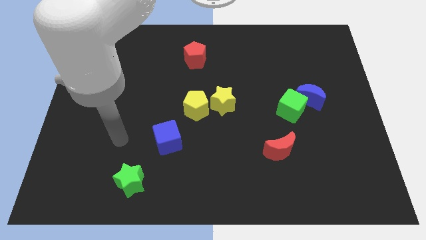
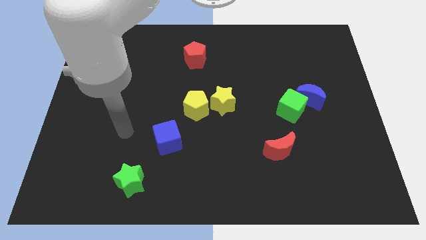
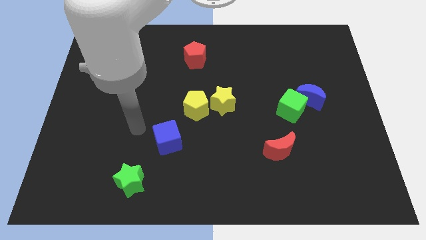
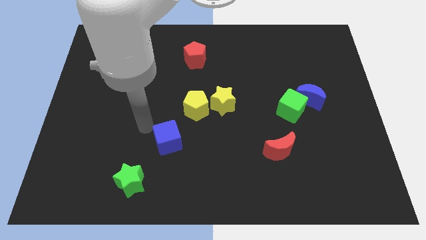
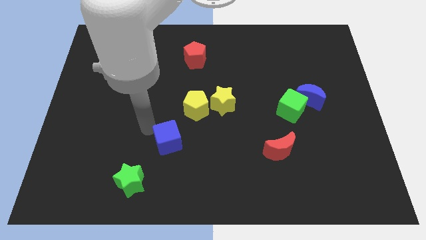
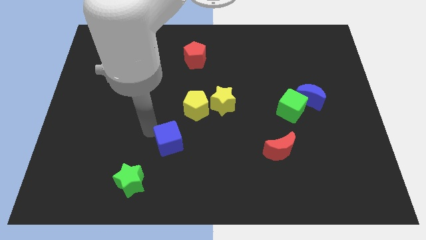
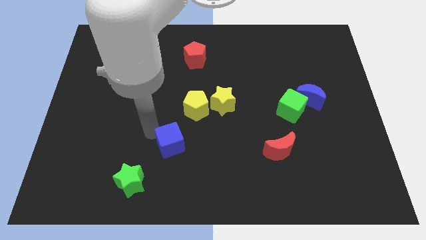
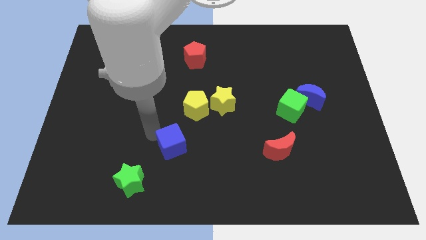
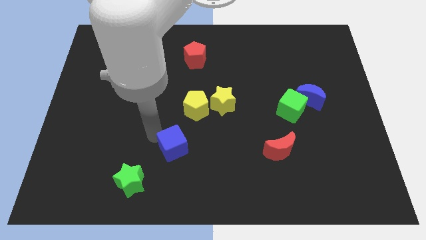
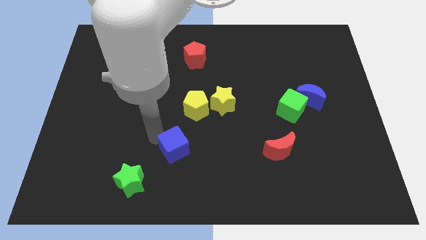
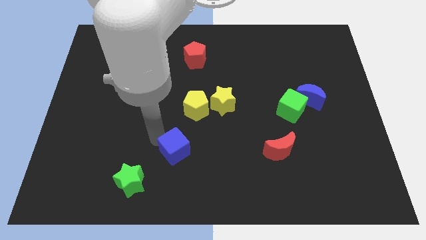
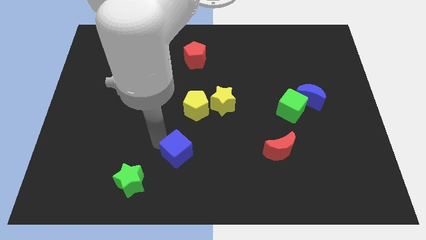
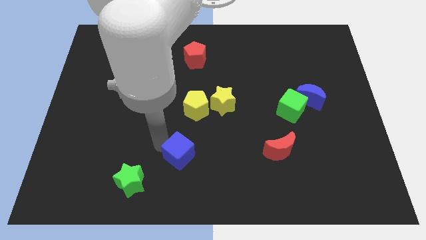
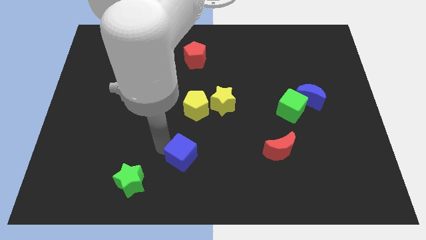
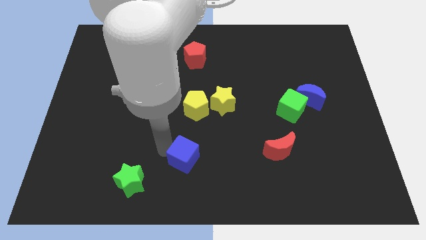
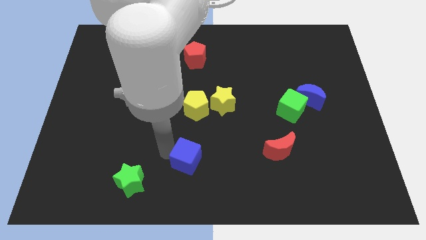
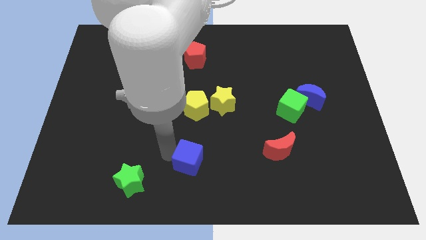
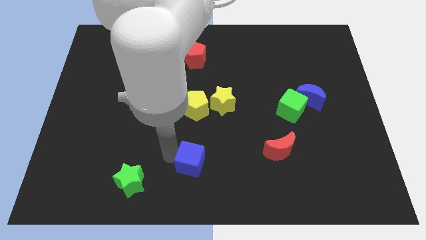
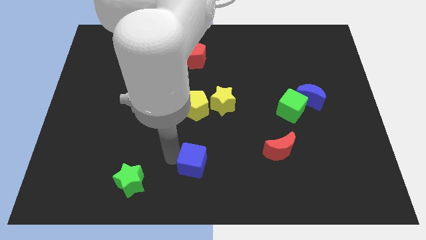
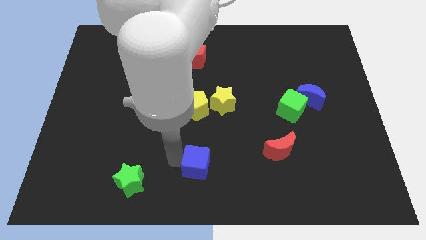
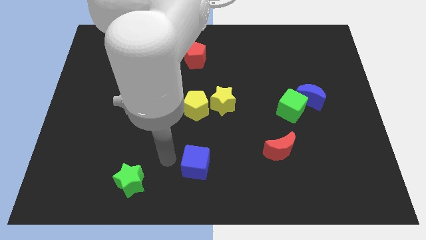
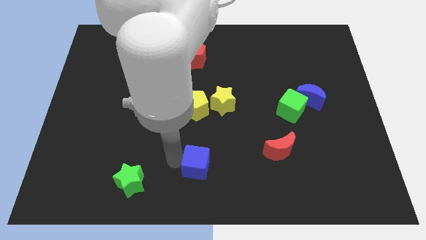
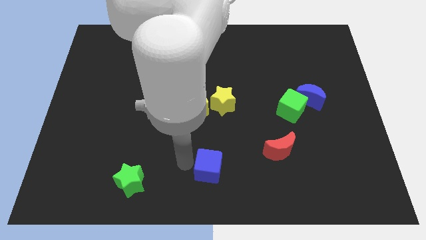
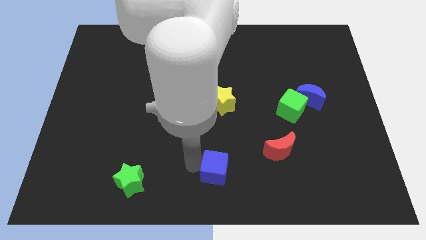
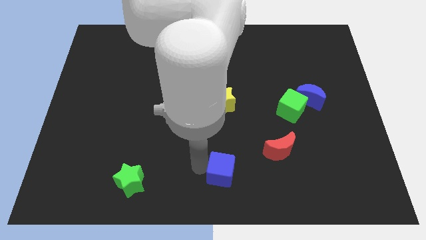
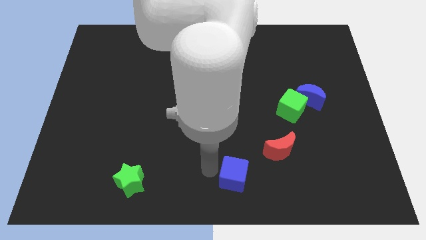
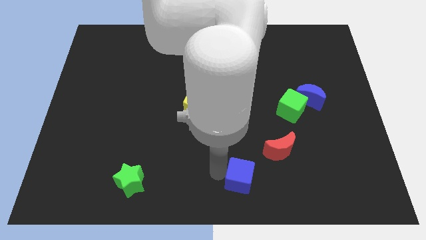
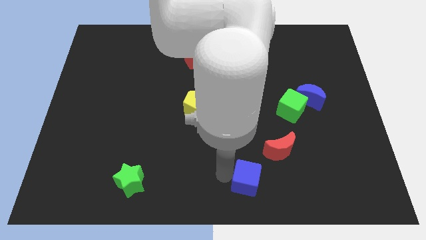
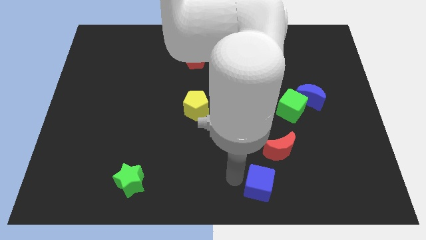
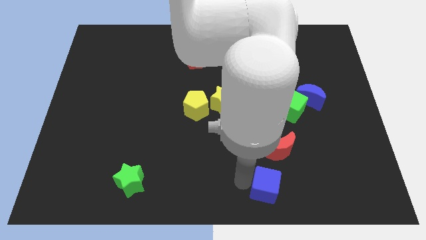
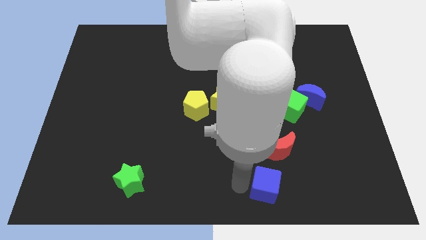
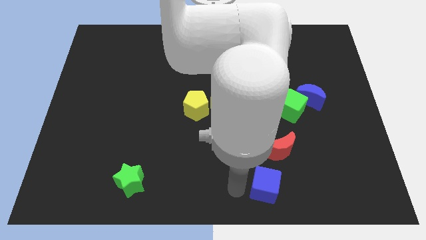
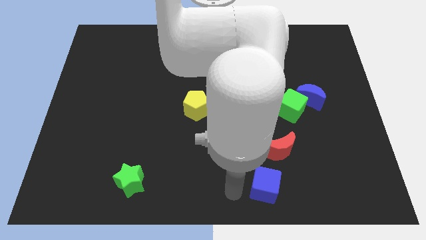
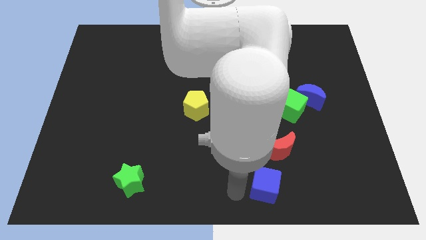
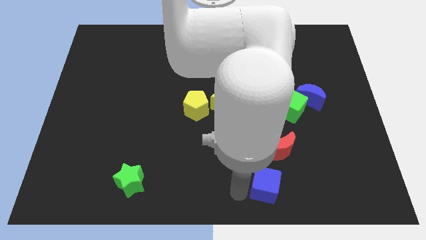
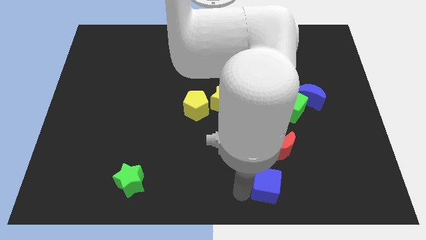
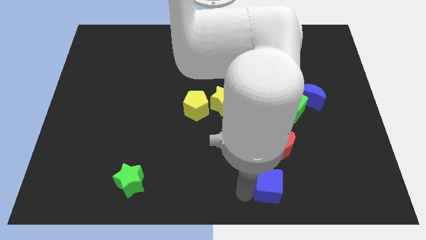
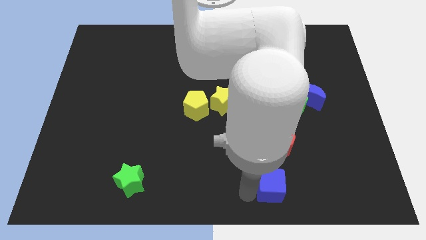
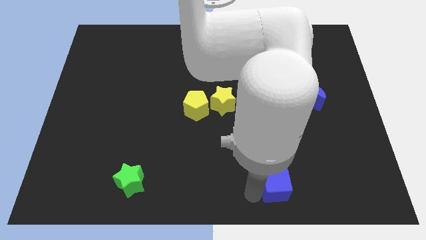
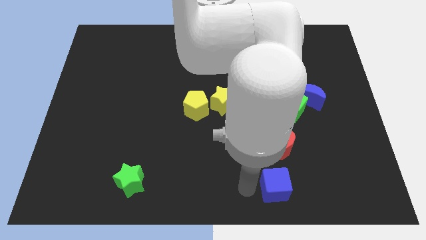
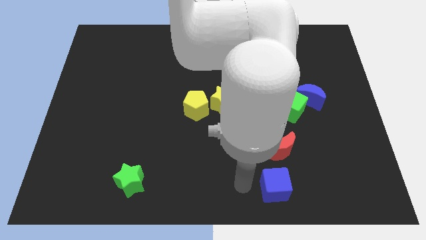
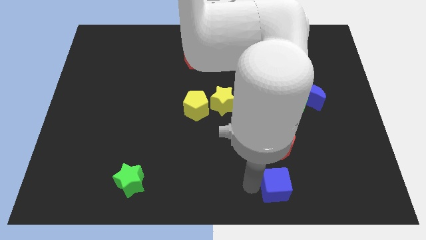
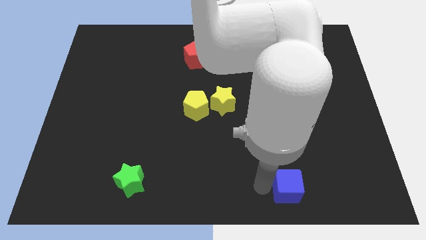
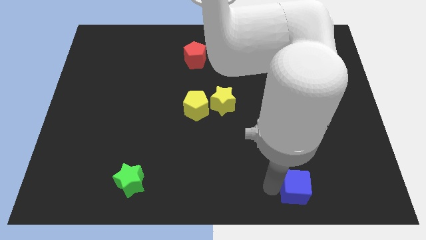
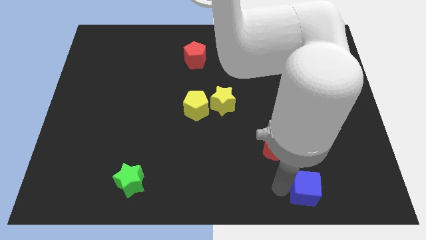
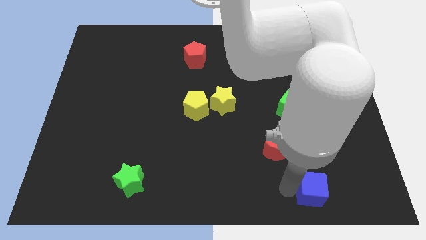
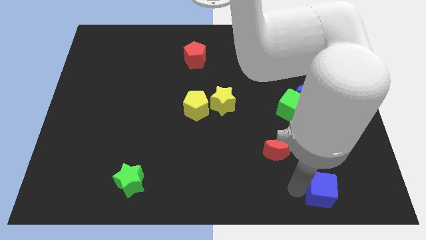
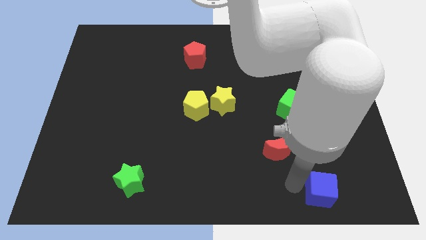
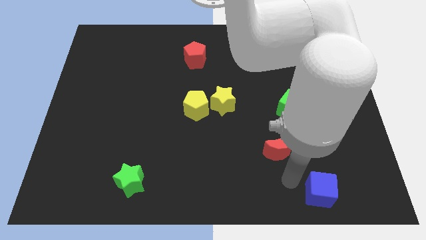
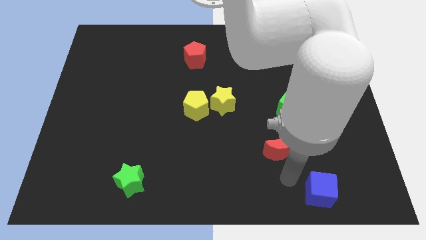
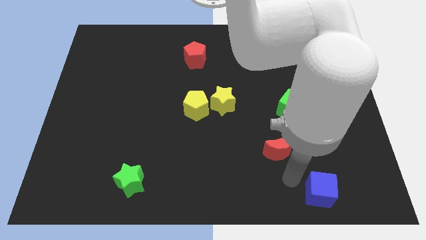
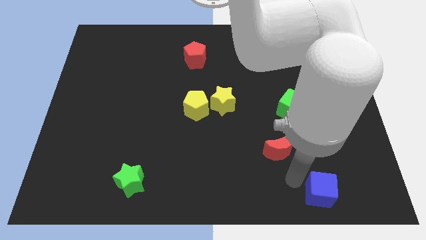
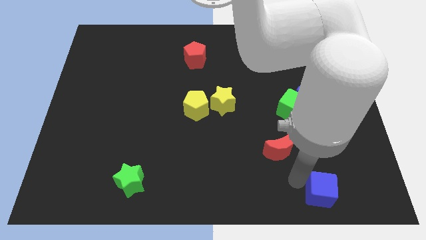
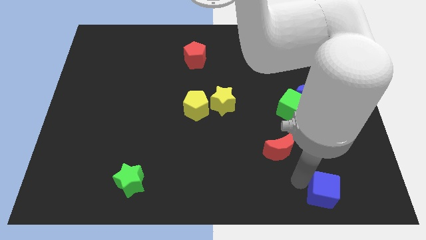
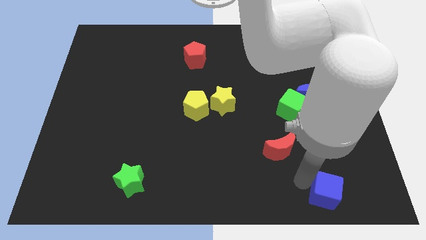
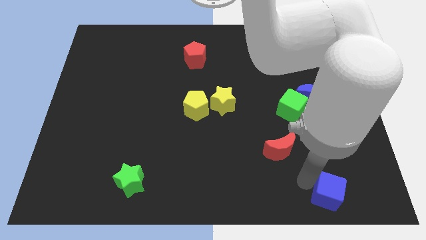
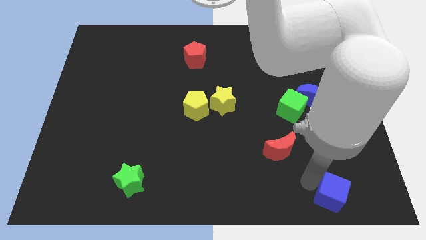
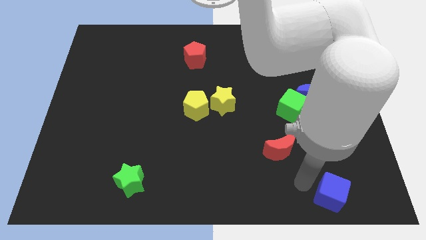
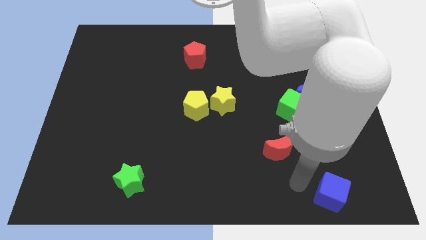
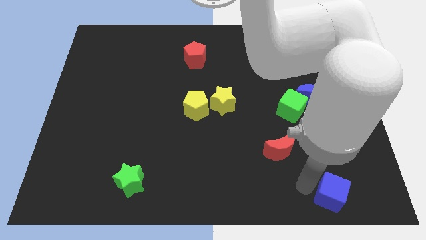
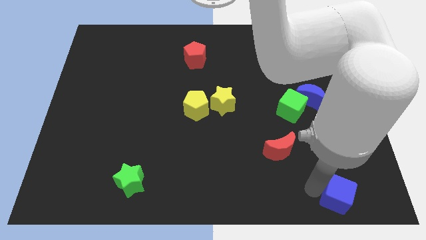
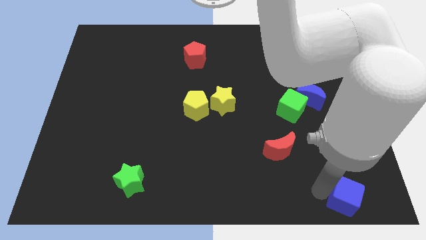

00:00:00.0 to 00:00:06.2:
move the blue cube to the bottom right
